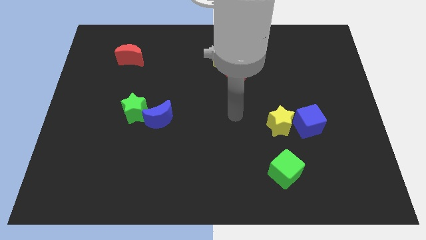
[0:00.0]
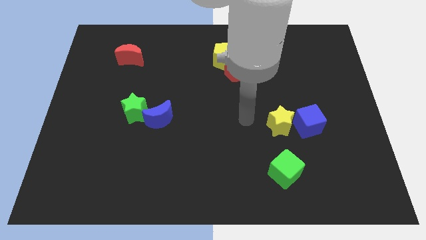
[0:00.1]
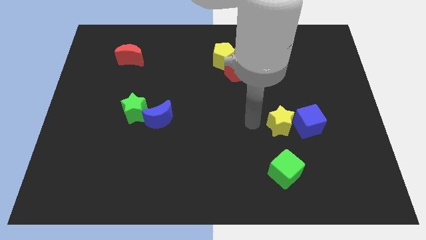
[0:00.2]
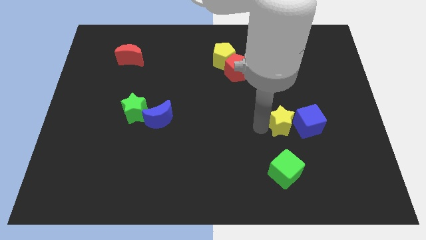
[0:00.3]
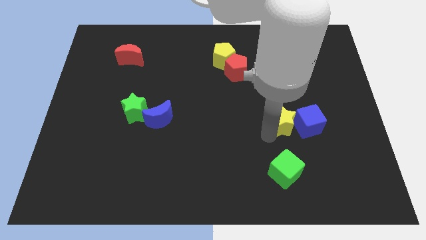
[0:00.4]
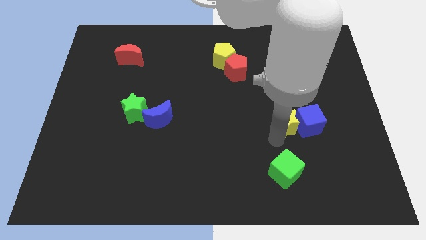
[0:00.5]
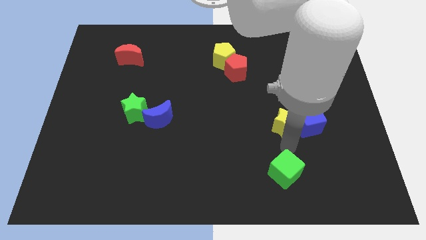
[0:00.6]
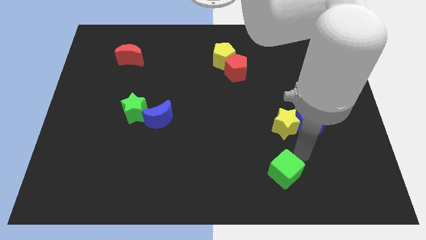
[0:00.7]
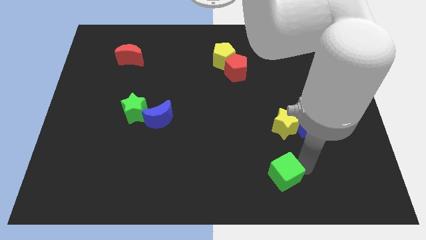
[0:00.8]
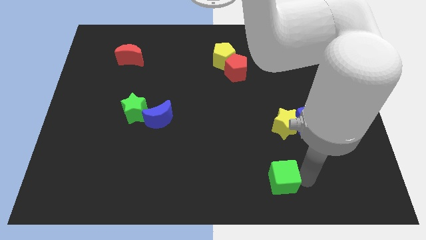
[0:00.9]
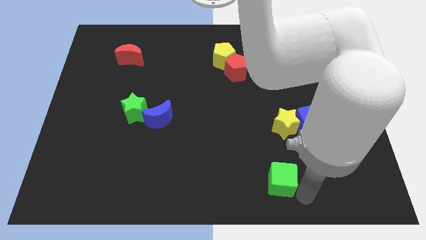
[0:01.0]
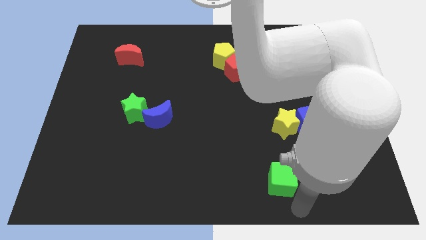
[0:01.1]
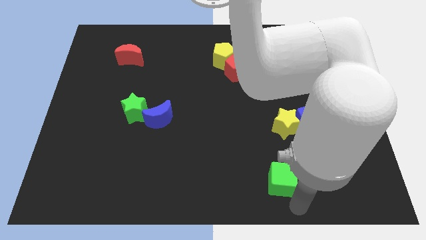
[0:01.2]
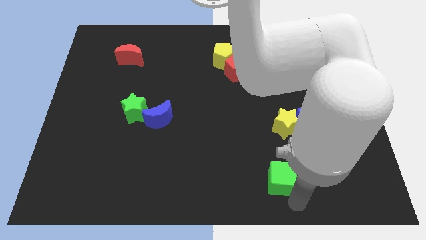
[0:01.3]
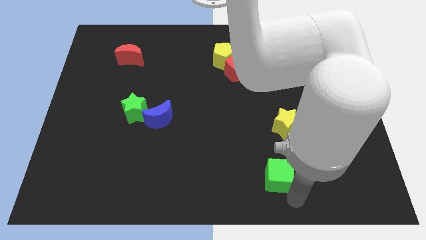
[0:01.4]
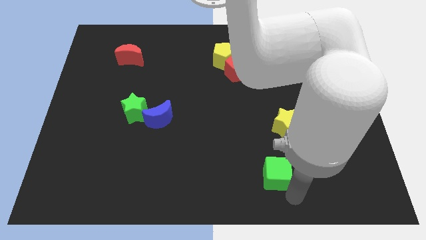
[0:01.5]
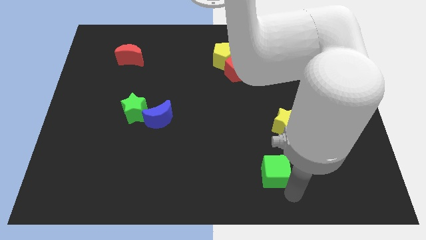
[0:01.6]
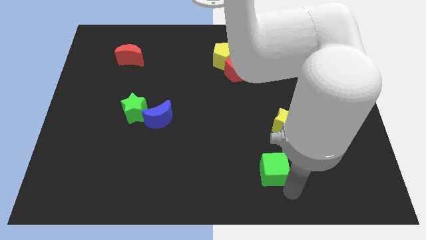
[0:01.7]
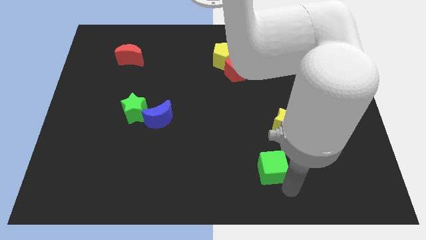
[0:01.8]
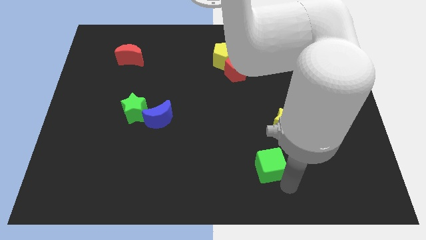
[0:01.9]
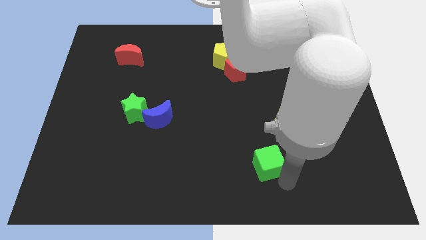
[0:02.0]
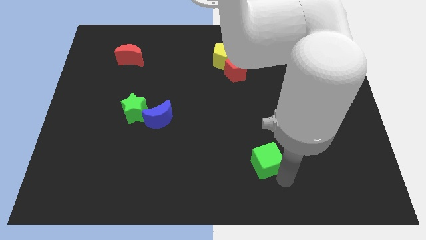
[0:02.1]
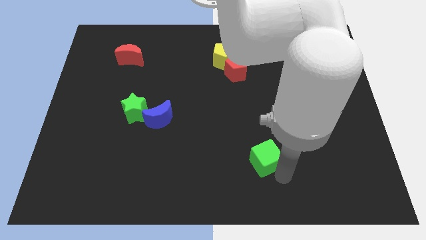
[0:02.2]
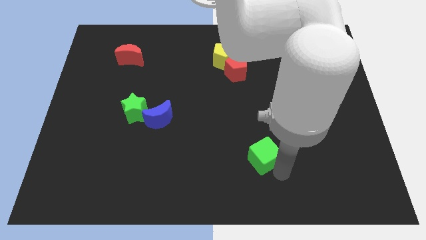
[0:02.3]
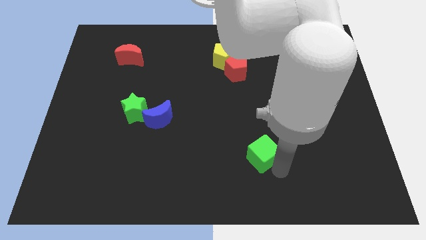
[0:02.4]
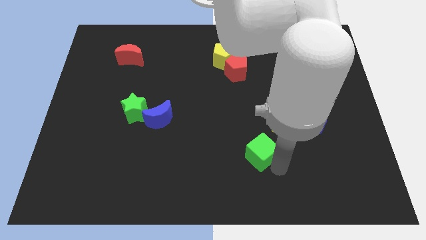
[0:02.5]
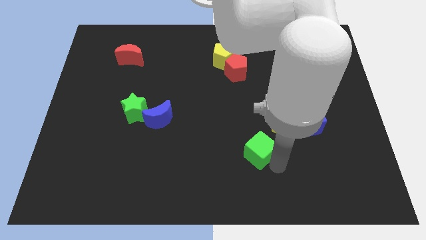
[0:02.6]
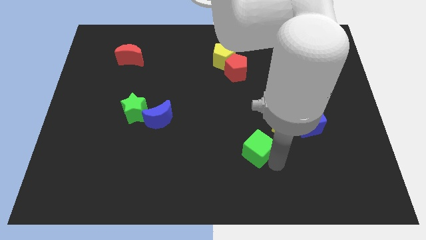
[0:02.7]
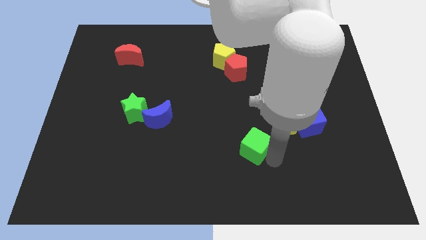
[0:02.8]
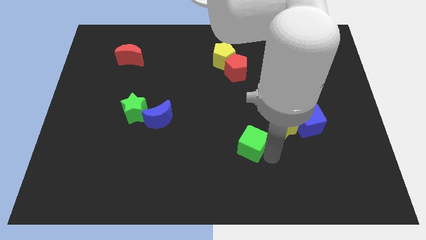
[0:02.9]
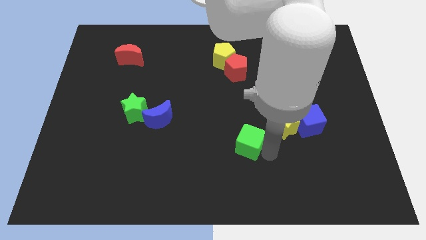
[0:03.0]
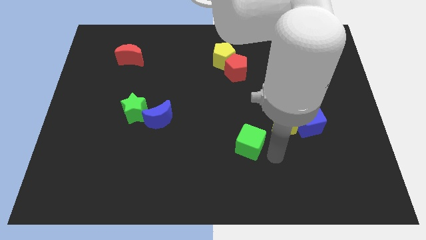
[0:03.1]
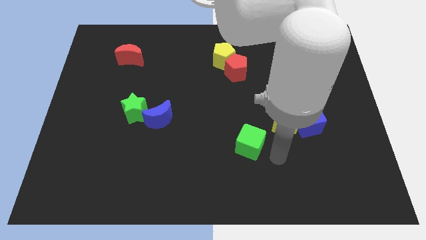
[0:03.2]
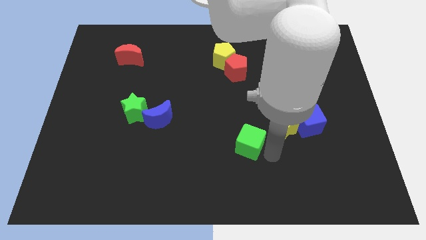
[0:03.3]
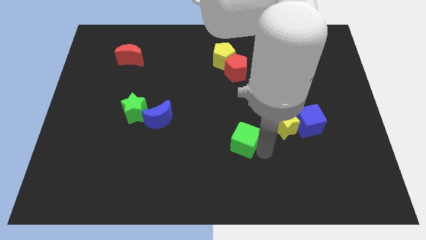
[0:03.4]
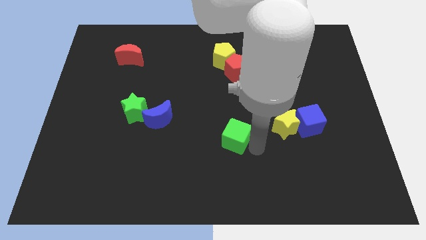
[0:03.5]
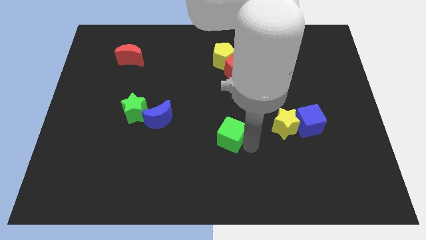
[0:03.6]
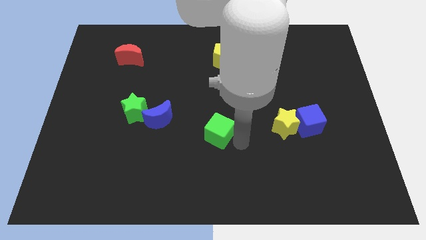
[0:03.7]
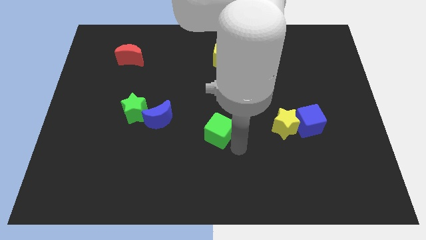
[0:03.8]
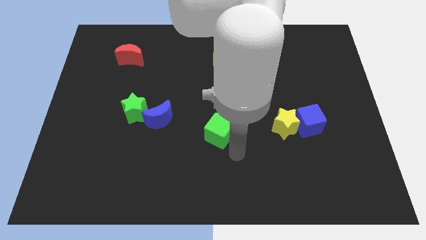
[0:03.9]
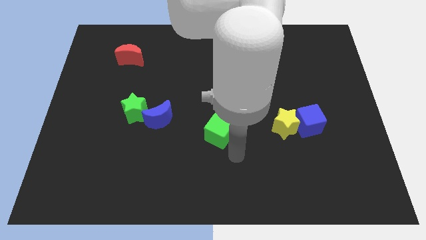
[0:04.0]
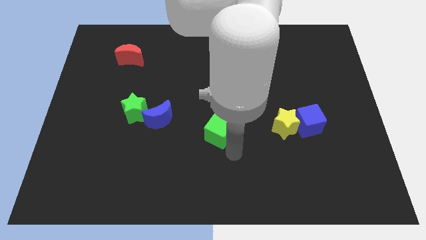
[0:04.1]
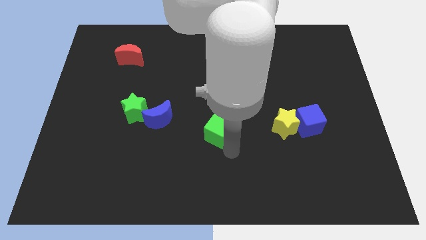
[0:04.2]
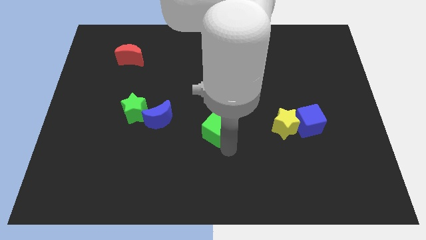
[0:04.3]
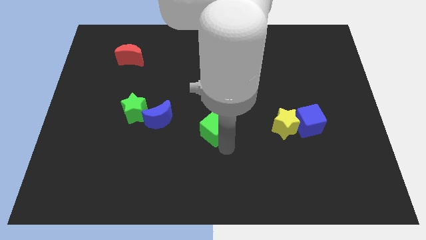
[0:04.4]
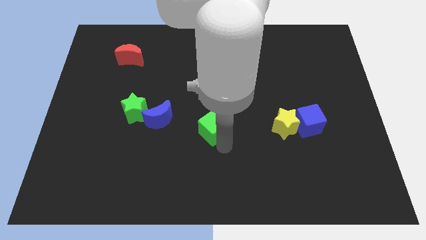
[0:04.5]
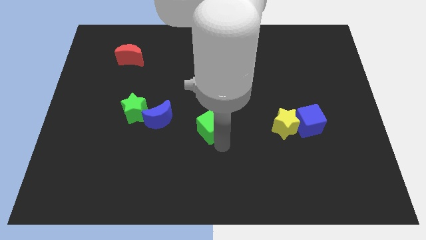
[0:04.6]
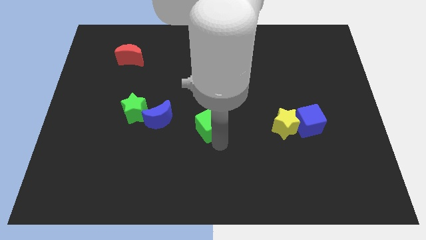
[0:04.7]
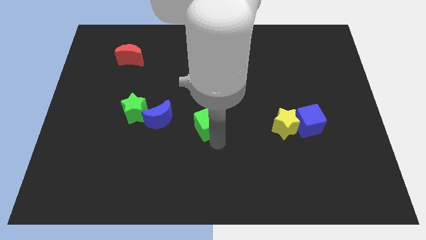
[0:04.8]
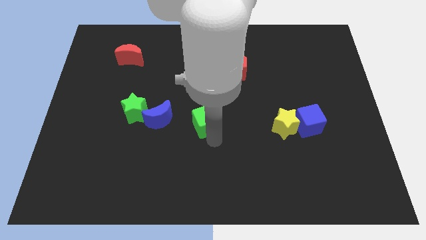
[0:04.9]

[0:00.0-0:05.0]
slide the green cube up and left

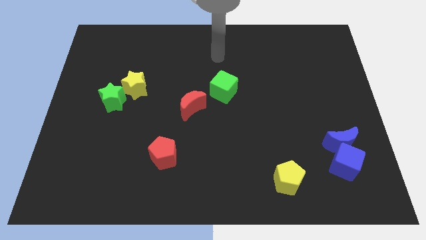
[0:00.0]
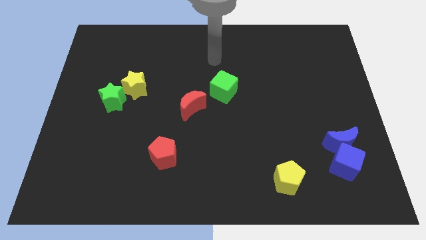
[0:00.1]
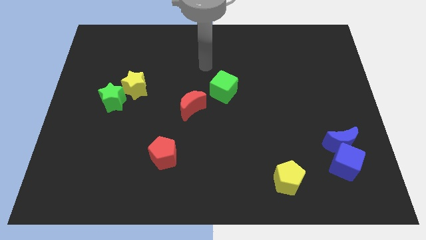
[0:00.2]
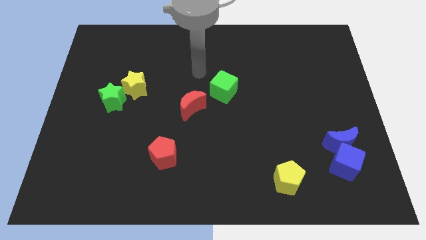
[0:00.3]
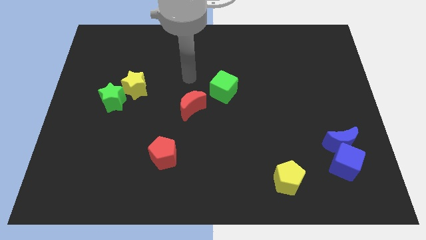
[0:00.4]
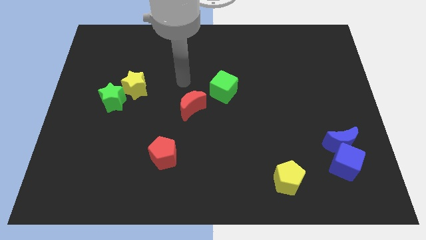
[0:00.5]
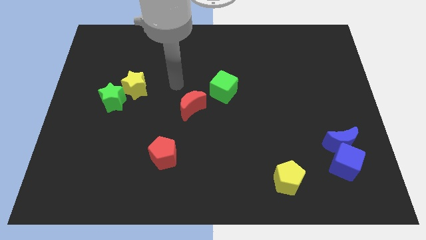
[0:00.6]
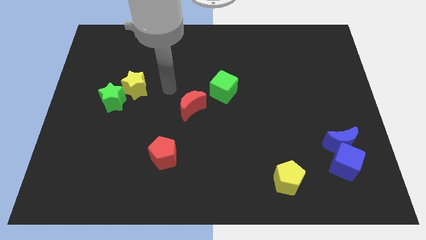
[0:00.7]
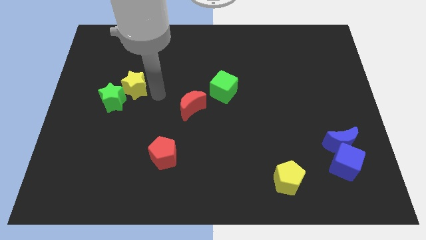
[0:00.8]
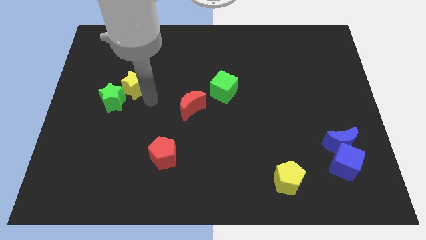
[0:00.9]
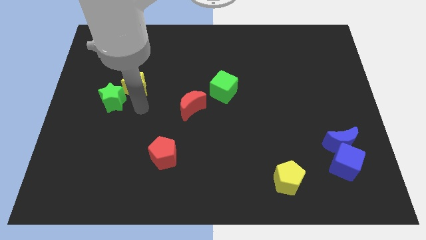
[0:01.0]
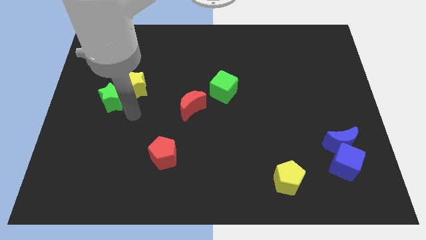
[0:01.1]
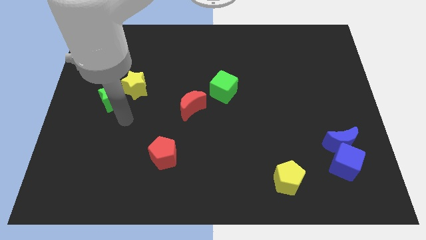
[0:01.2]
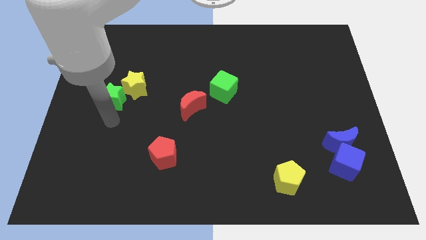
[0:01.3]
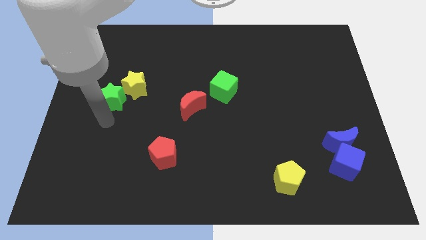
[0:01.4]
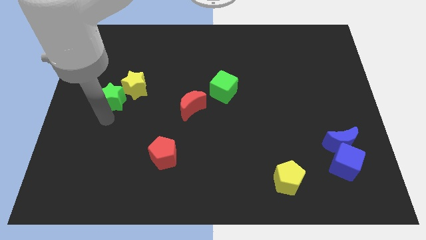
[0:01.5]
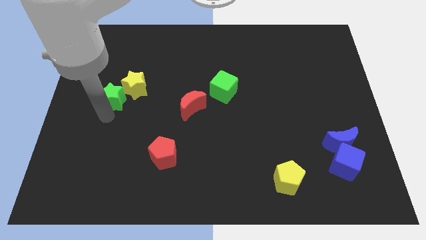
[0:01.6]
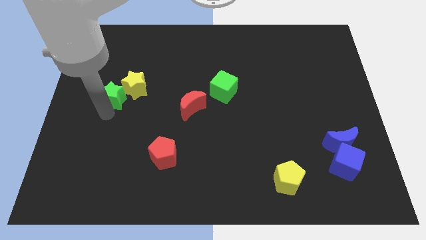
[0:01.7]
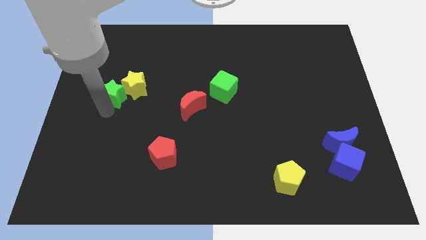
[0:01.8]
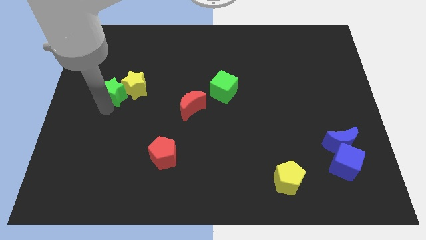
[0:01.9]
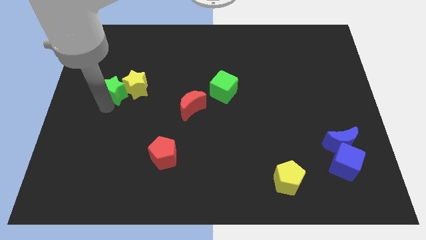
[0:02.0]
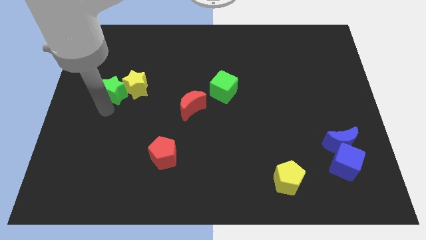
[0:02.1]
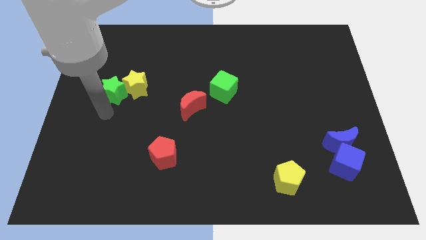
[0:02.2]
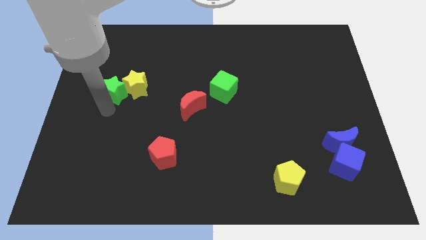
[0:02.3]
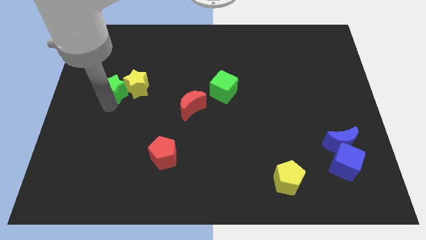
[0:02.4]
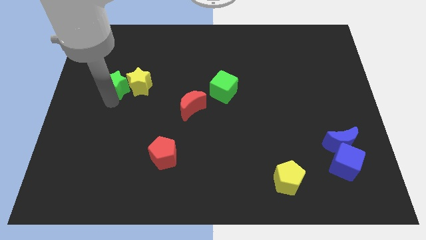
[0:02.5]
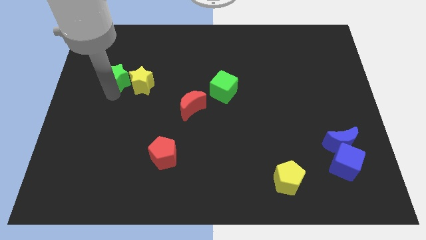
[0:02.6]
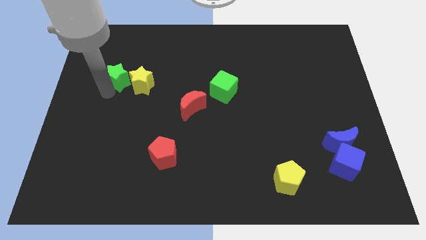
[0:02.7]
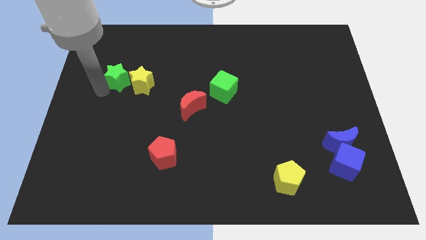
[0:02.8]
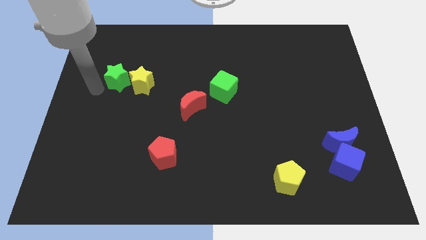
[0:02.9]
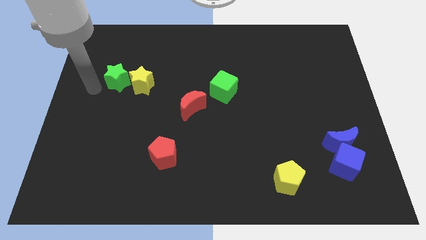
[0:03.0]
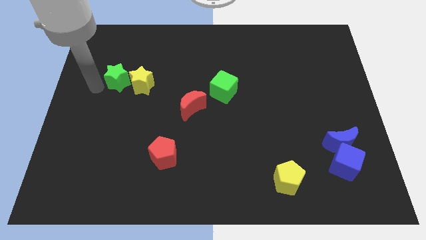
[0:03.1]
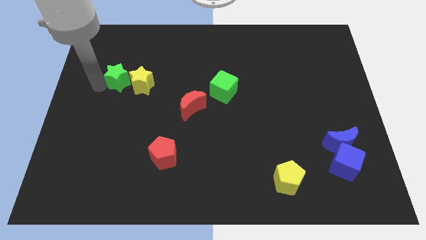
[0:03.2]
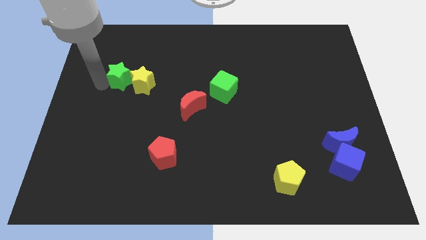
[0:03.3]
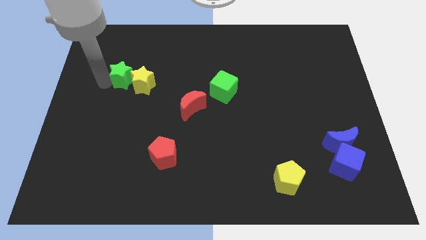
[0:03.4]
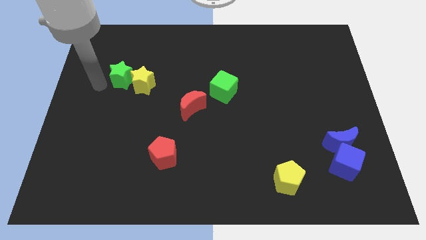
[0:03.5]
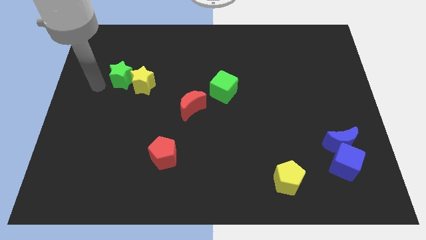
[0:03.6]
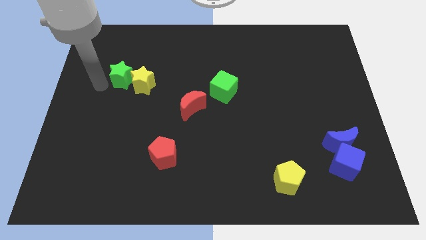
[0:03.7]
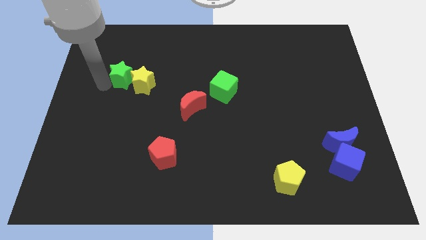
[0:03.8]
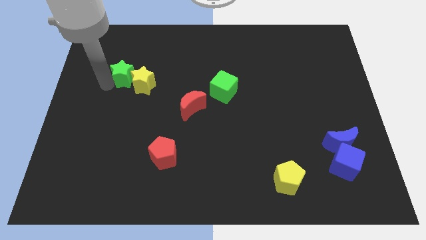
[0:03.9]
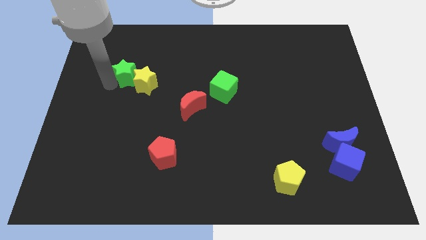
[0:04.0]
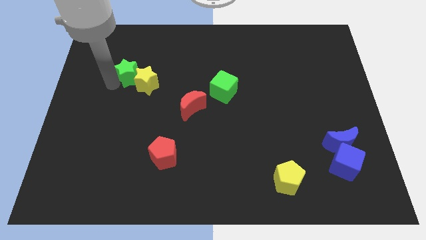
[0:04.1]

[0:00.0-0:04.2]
slide the green star upwards and then right a little
